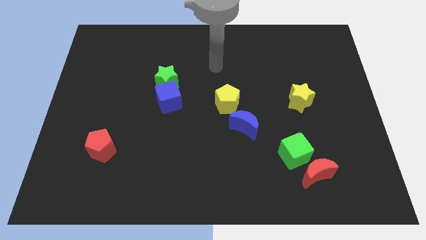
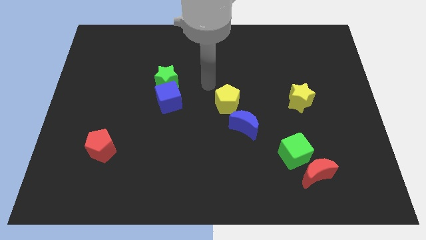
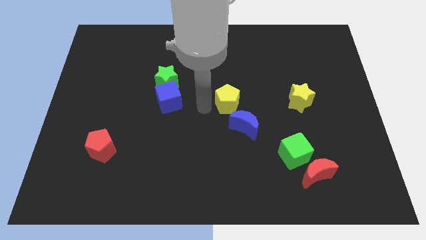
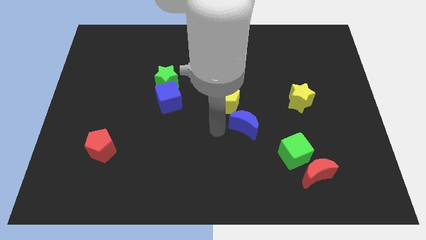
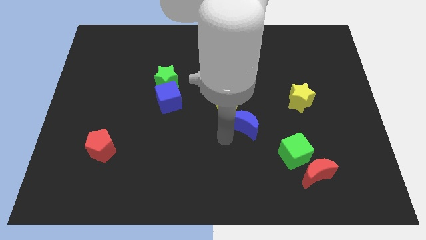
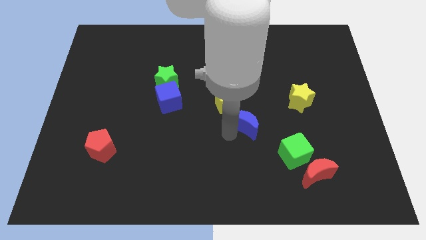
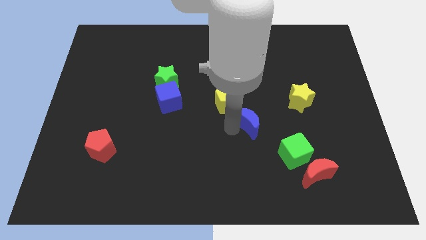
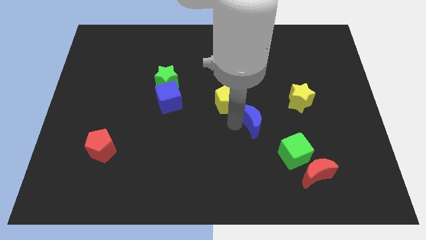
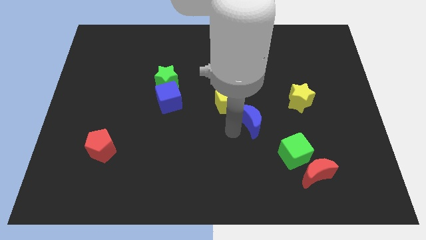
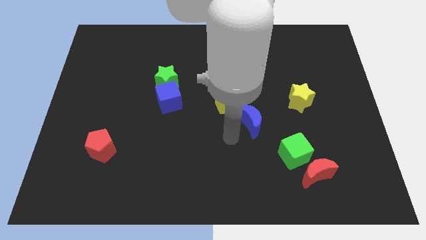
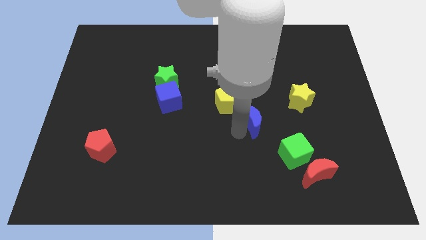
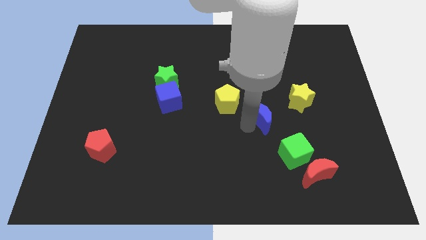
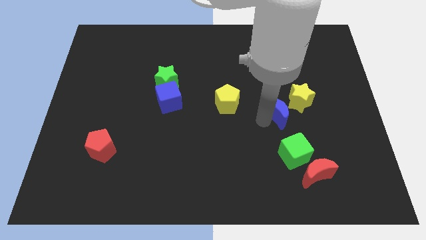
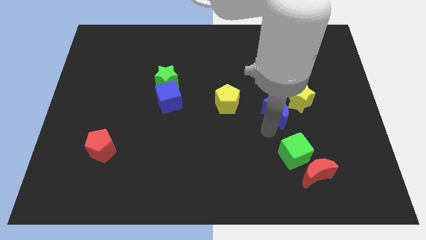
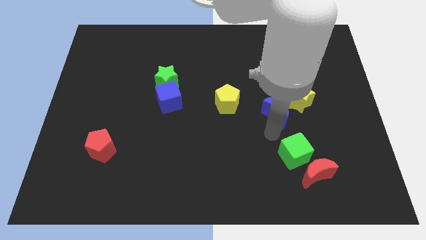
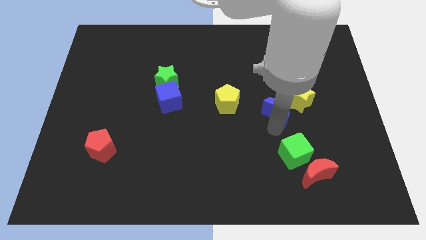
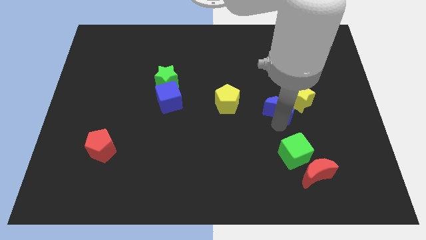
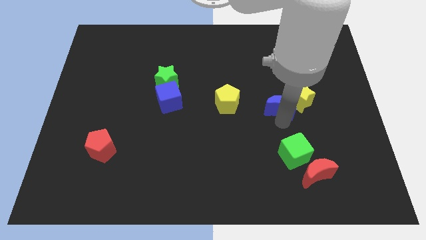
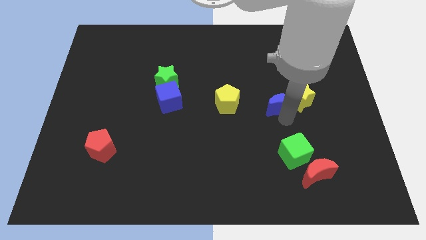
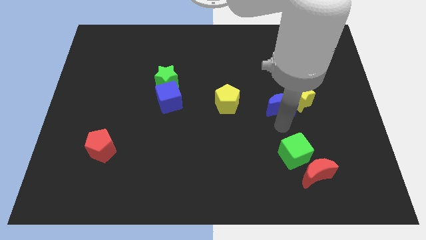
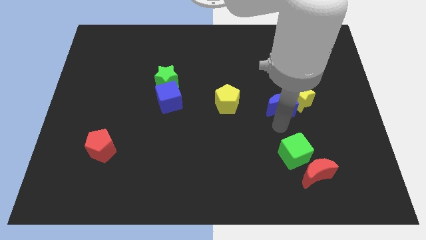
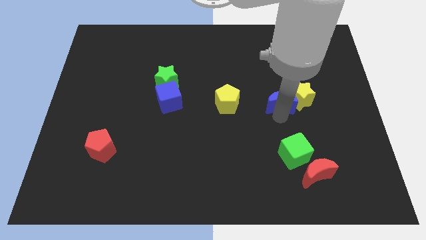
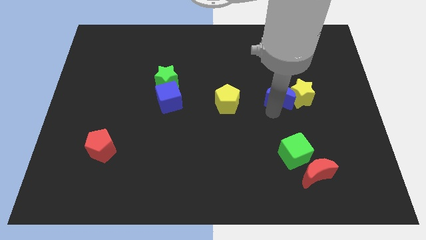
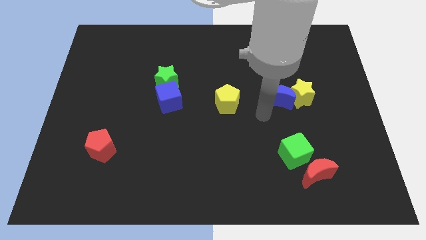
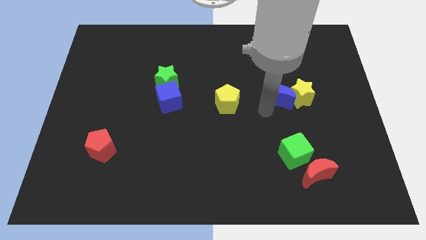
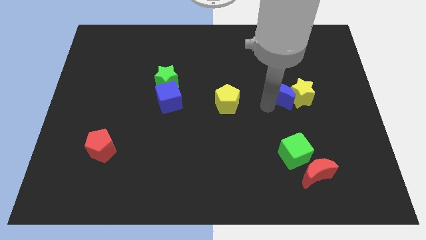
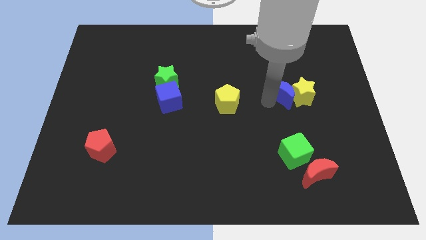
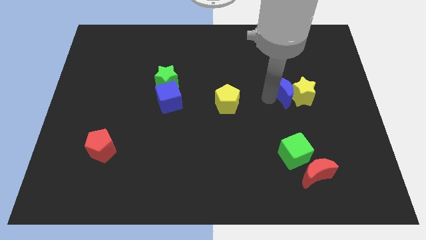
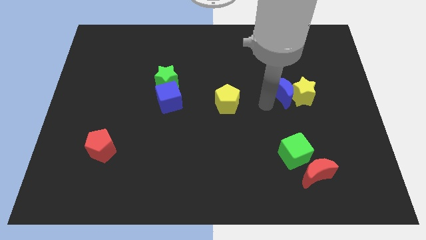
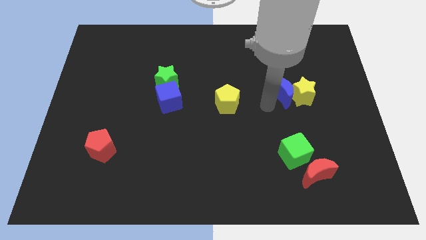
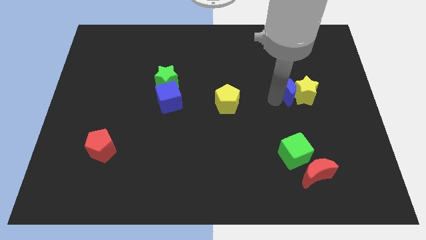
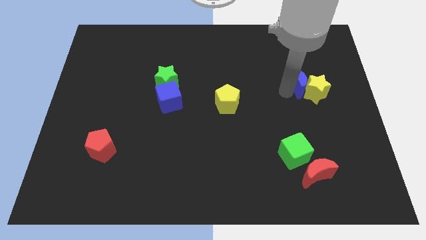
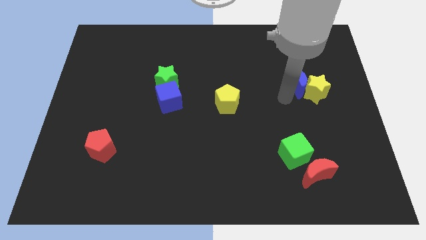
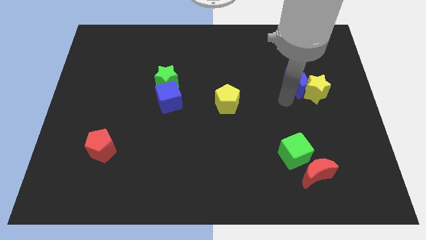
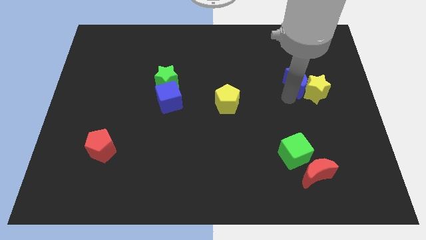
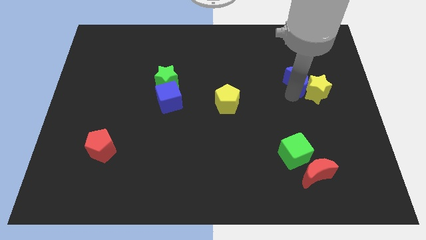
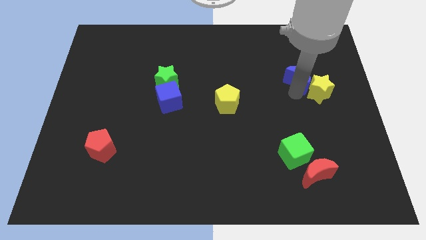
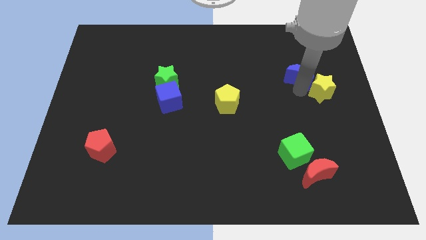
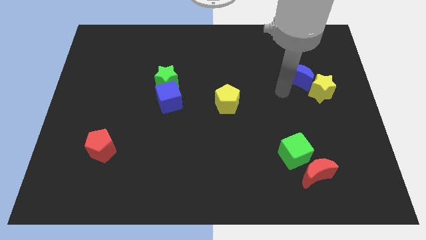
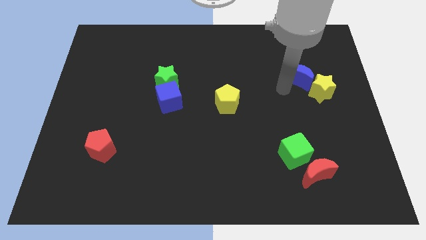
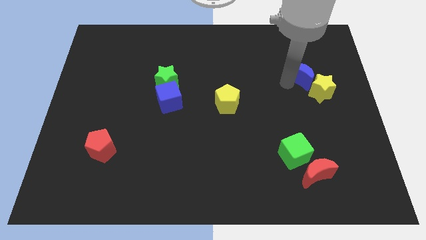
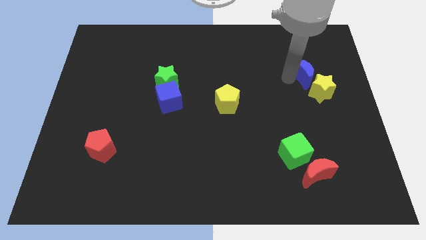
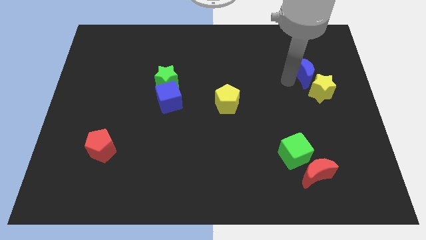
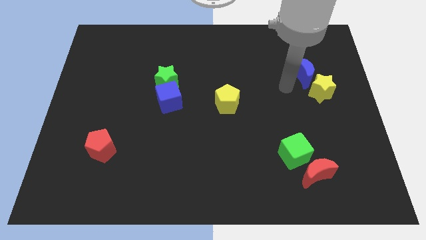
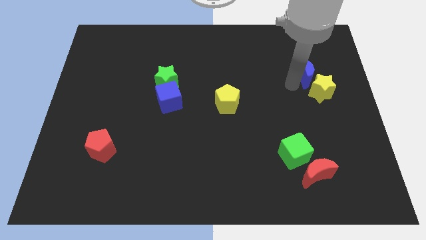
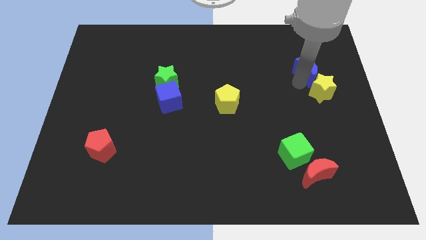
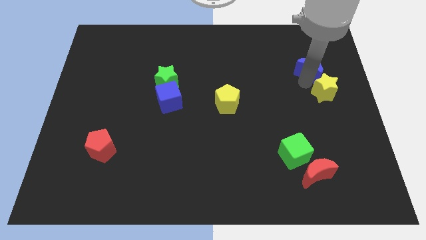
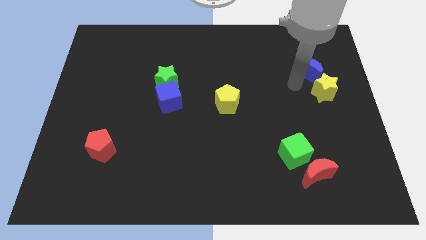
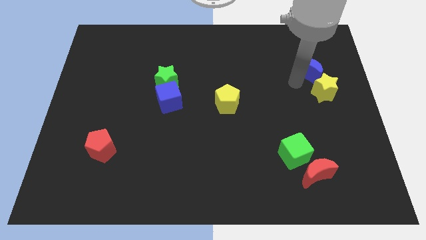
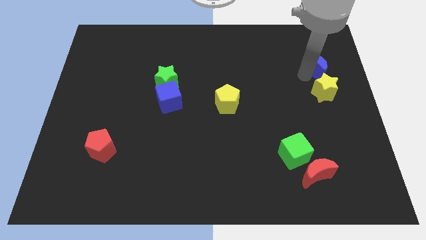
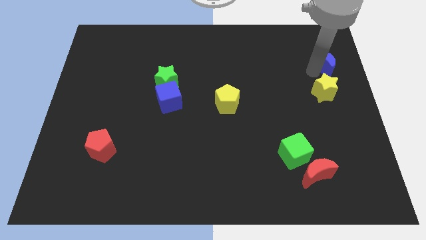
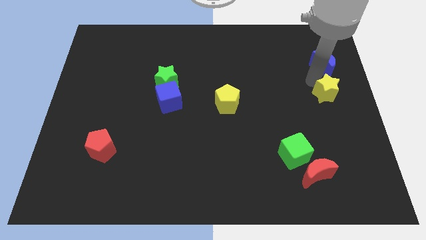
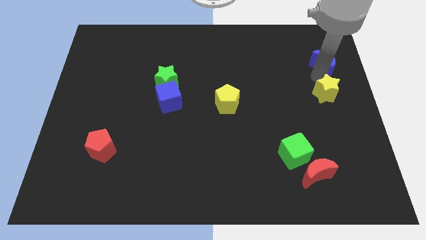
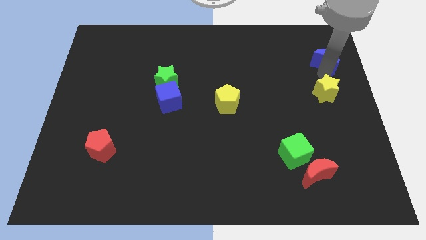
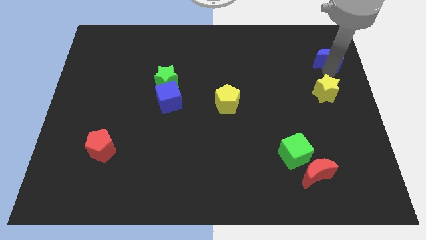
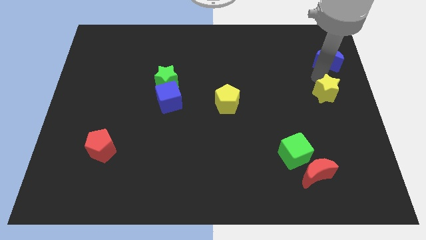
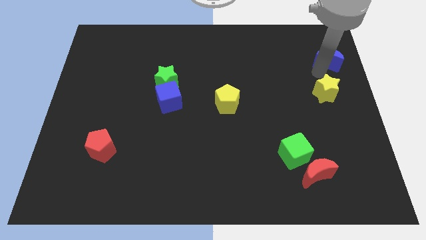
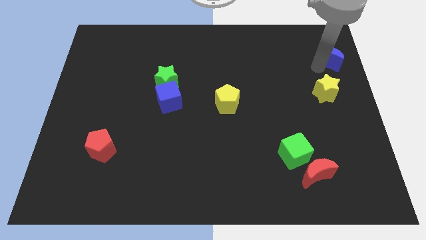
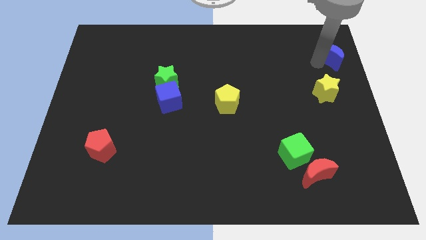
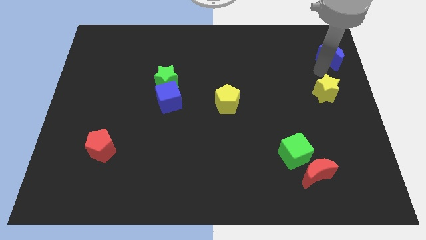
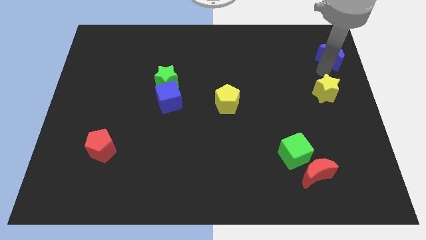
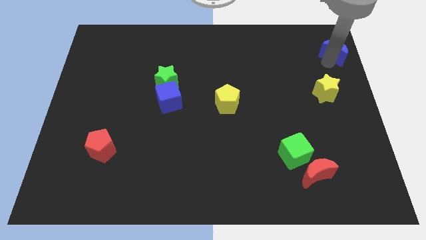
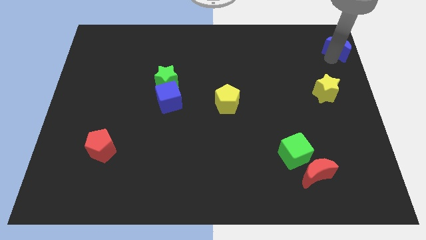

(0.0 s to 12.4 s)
move the blue moon to the top right
